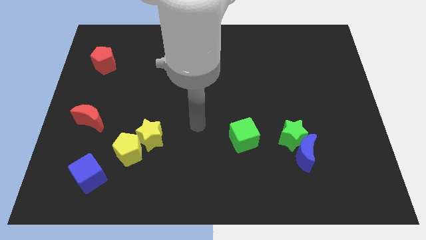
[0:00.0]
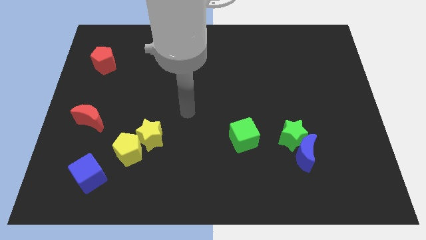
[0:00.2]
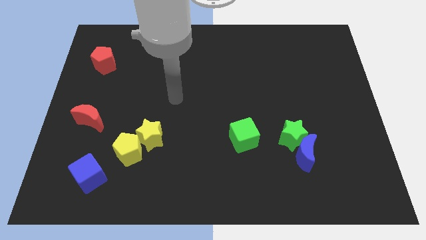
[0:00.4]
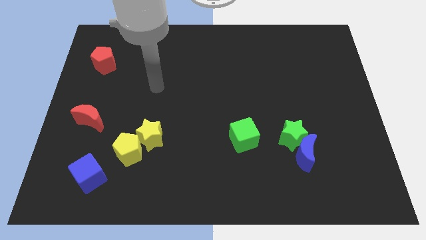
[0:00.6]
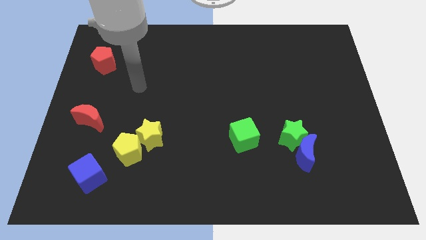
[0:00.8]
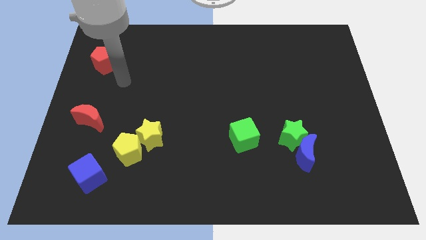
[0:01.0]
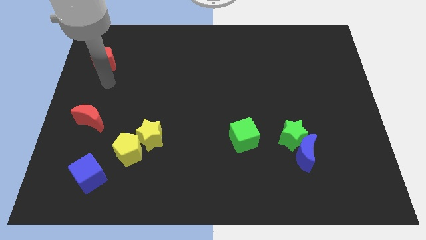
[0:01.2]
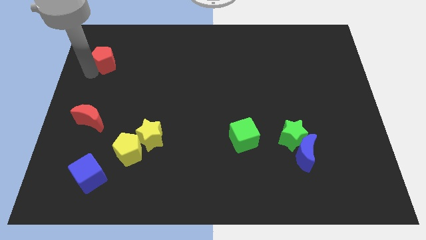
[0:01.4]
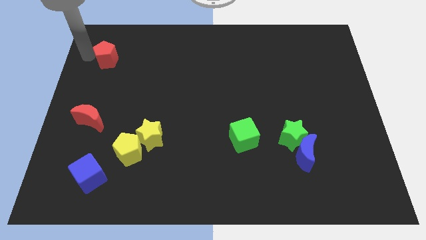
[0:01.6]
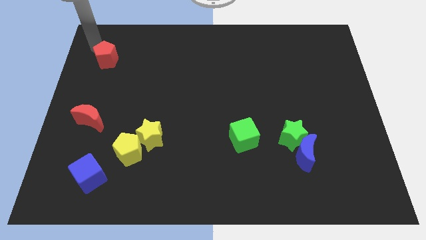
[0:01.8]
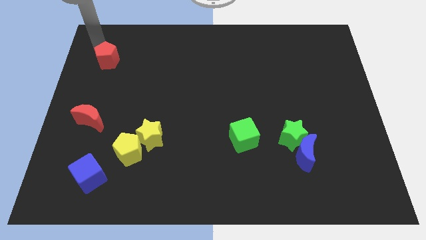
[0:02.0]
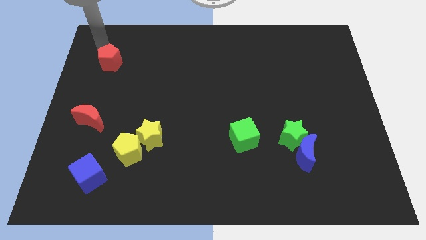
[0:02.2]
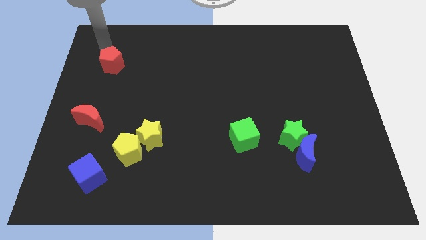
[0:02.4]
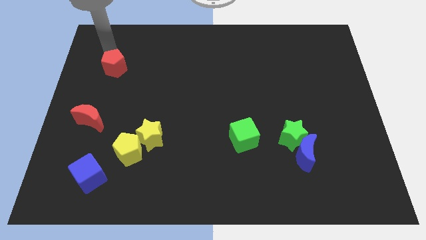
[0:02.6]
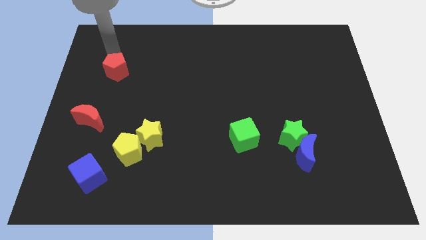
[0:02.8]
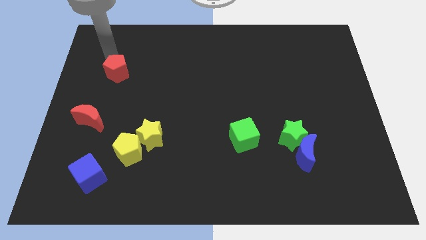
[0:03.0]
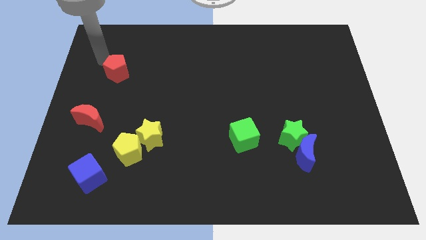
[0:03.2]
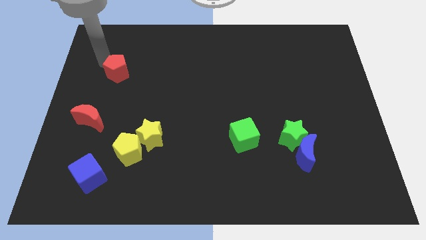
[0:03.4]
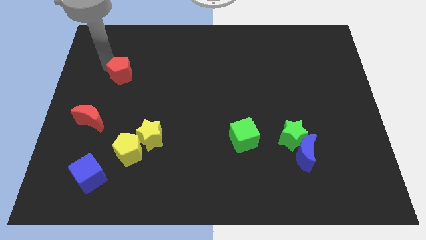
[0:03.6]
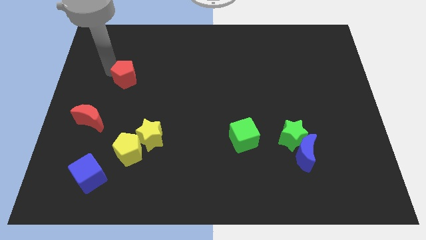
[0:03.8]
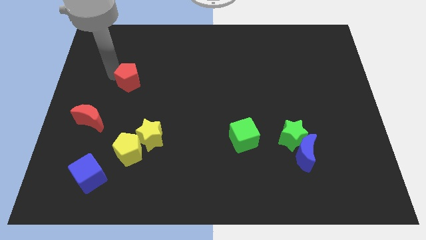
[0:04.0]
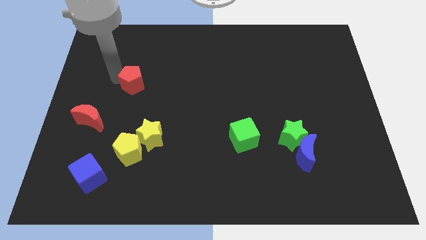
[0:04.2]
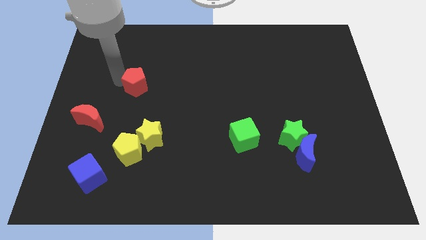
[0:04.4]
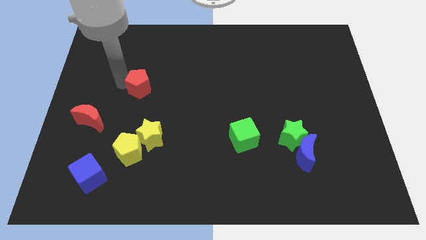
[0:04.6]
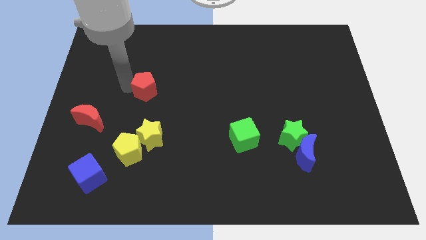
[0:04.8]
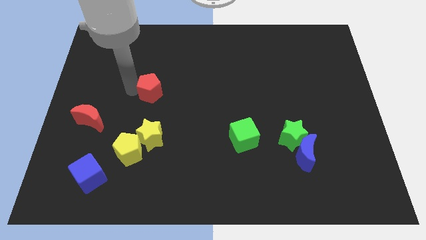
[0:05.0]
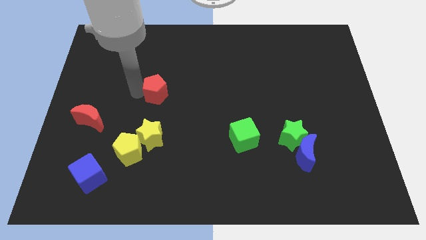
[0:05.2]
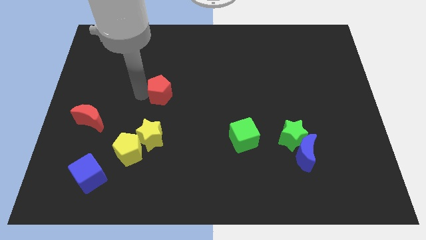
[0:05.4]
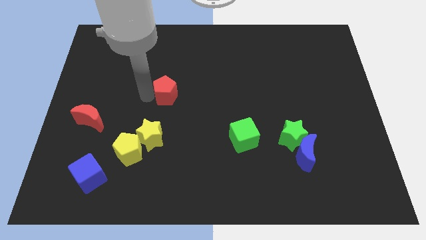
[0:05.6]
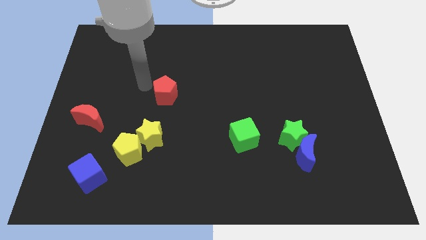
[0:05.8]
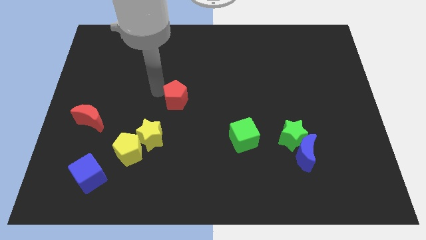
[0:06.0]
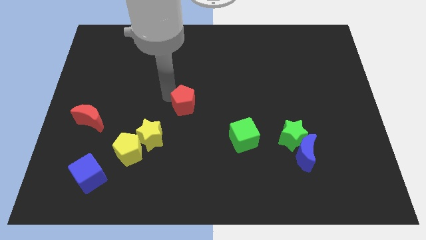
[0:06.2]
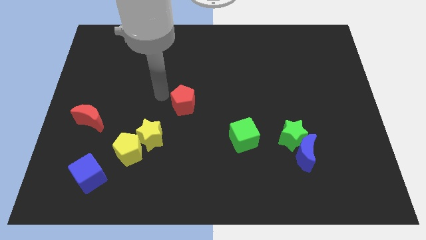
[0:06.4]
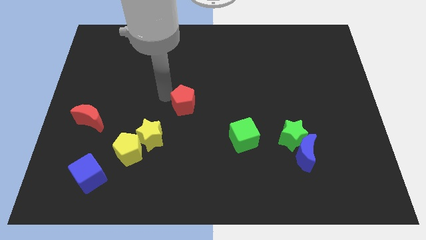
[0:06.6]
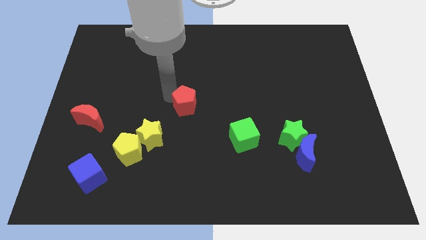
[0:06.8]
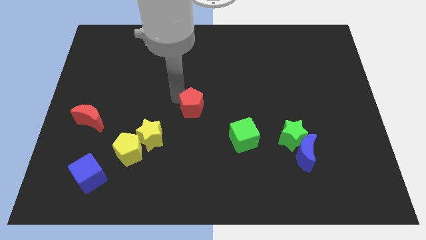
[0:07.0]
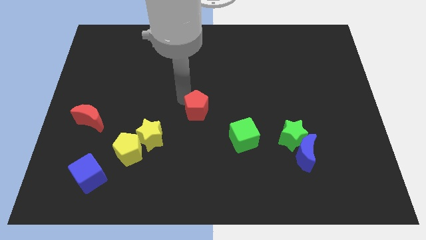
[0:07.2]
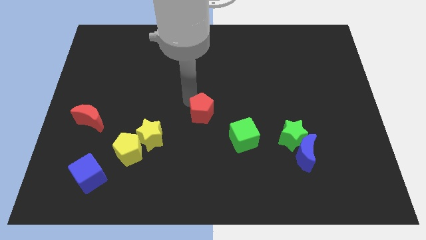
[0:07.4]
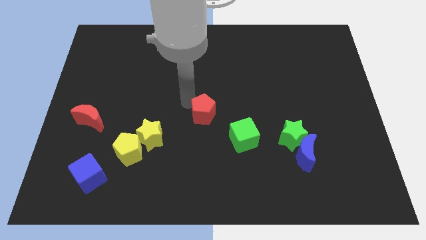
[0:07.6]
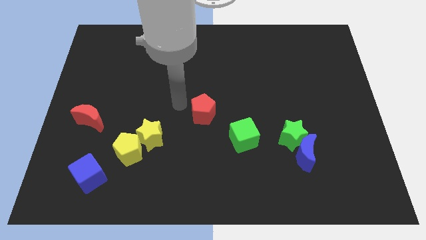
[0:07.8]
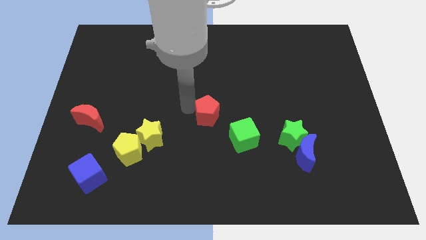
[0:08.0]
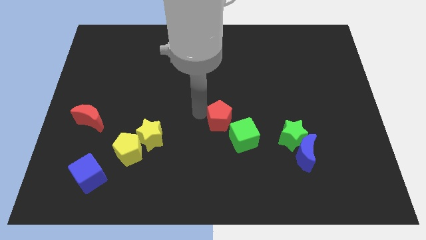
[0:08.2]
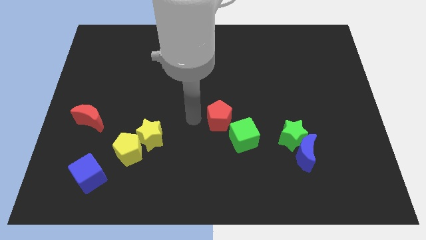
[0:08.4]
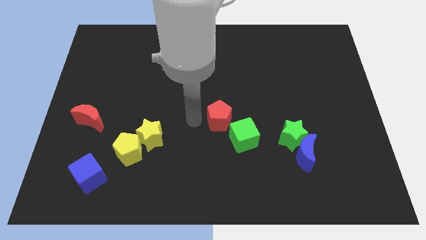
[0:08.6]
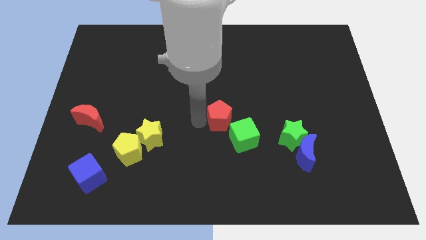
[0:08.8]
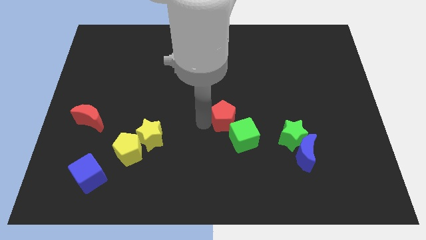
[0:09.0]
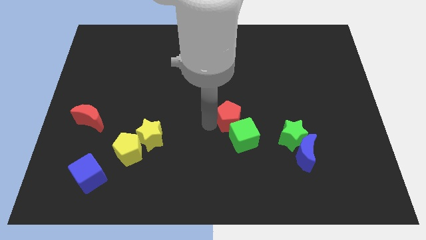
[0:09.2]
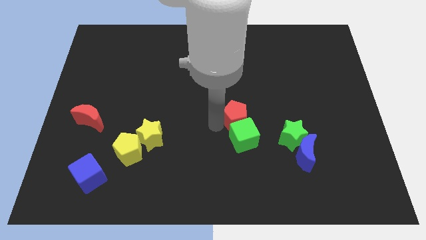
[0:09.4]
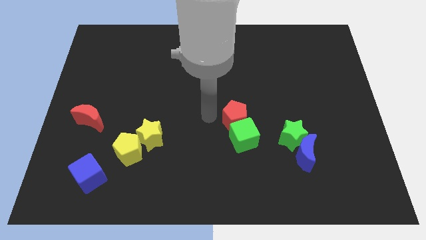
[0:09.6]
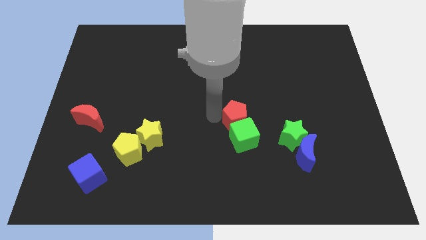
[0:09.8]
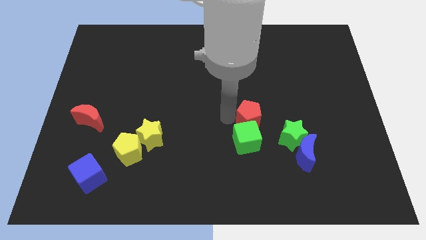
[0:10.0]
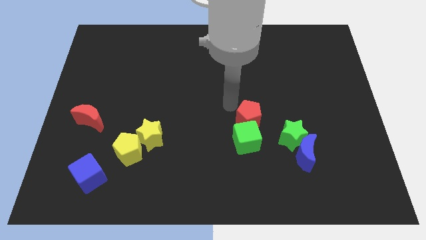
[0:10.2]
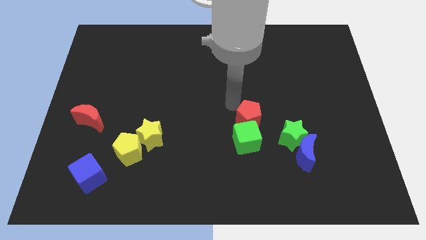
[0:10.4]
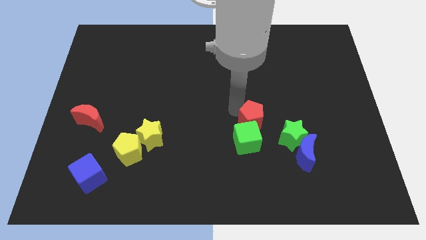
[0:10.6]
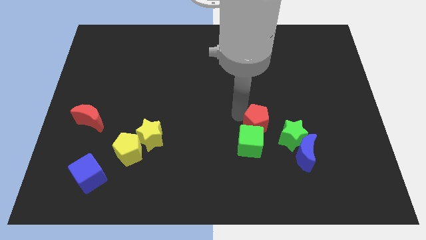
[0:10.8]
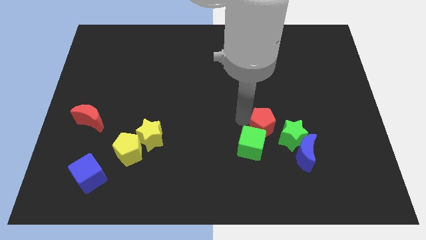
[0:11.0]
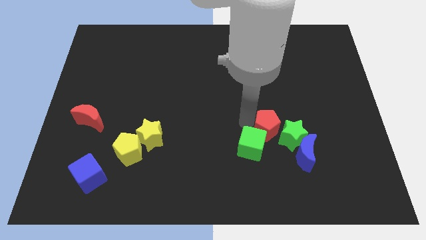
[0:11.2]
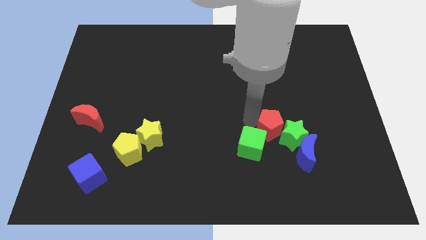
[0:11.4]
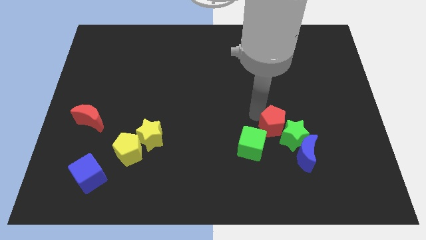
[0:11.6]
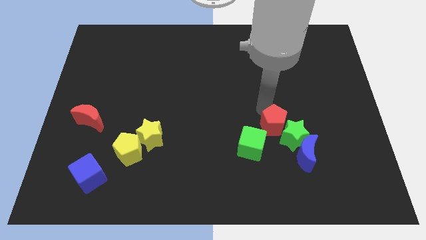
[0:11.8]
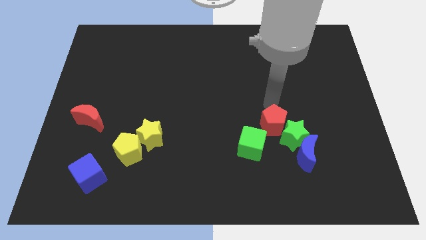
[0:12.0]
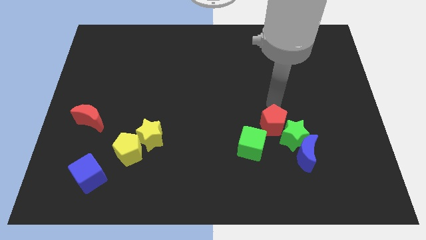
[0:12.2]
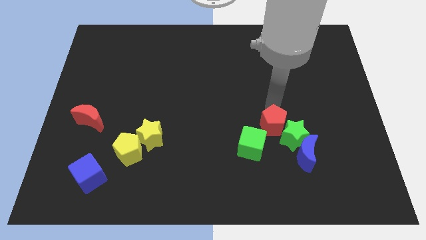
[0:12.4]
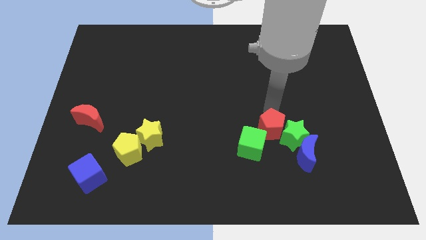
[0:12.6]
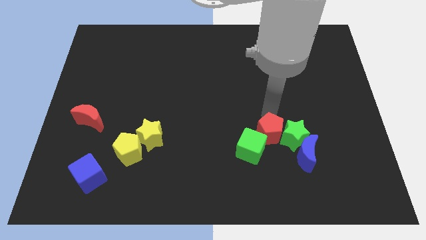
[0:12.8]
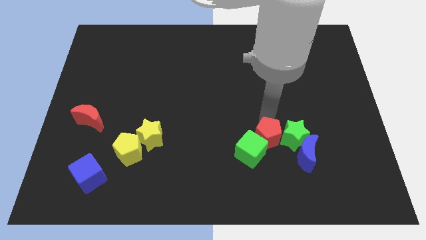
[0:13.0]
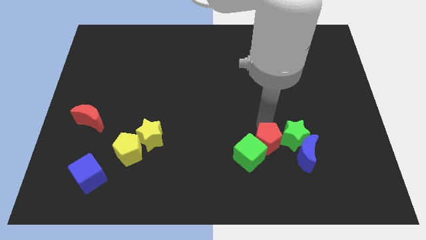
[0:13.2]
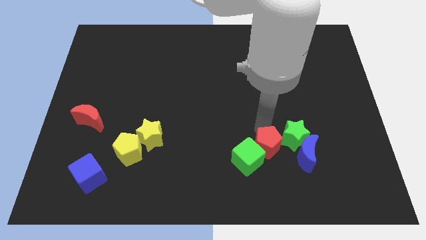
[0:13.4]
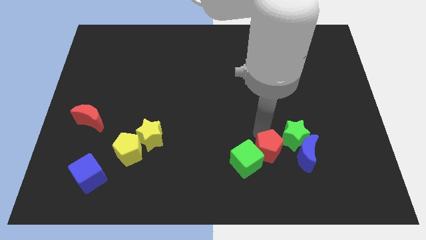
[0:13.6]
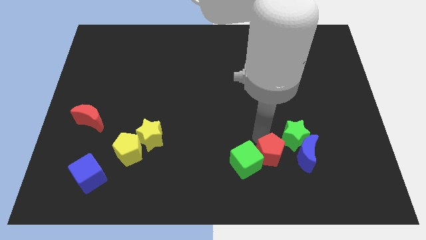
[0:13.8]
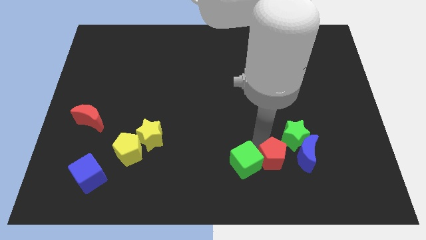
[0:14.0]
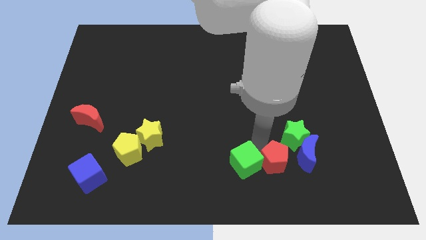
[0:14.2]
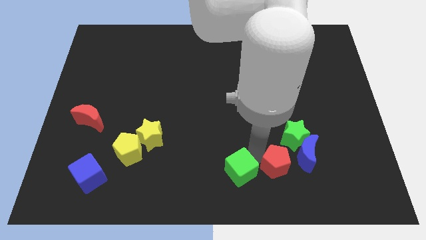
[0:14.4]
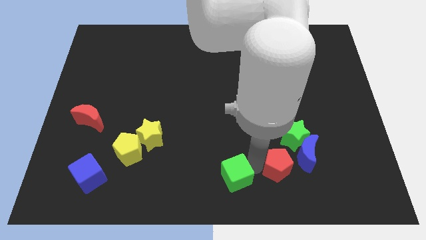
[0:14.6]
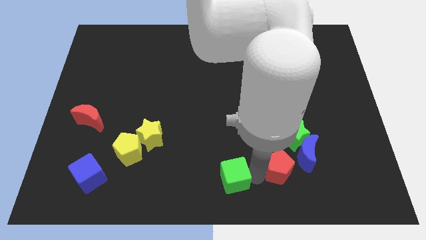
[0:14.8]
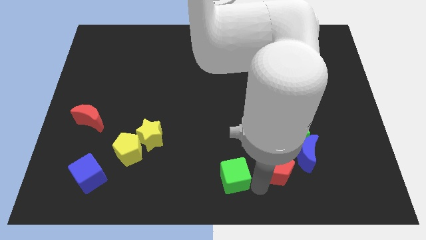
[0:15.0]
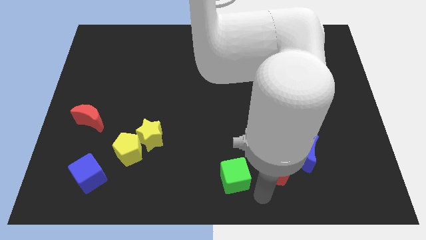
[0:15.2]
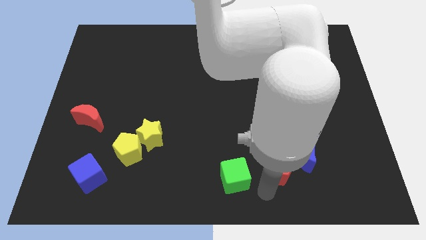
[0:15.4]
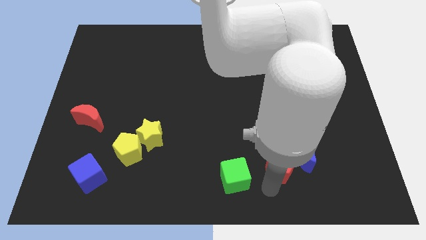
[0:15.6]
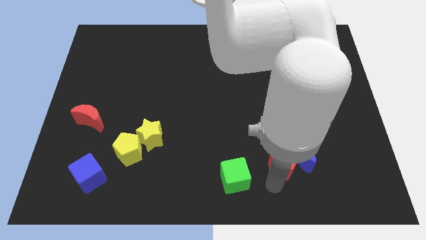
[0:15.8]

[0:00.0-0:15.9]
put the red pentagon close to the blue moon
